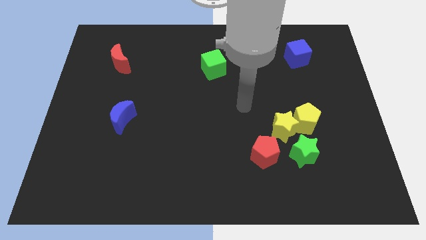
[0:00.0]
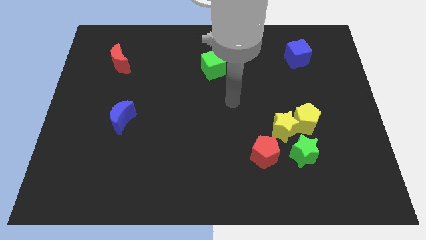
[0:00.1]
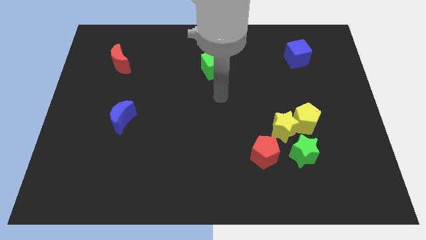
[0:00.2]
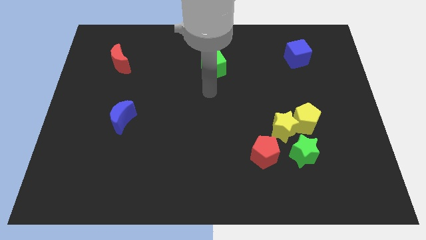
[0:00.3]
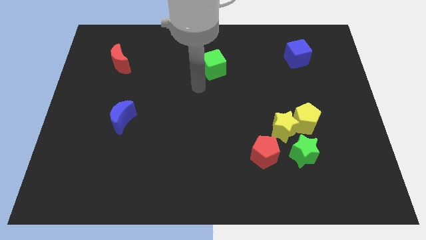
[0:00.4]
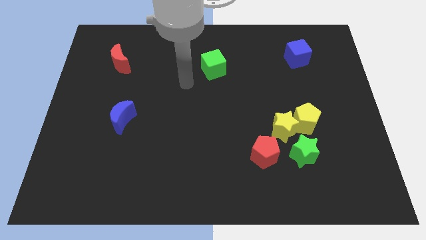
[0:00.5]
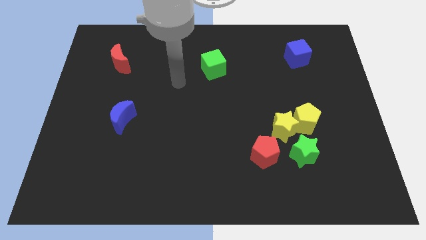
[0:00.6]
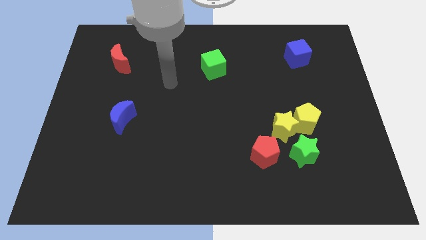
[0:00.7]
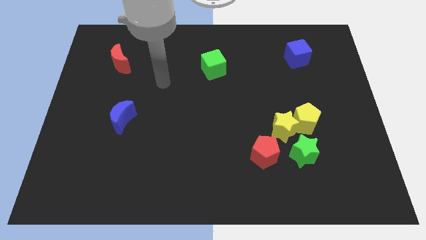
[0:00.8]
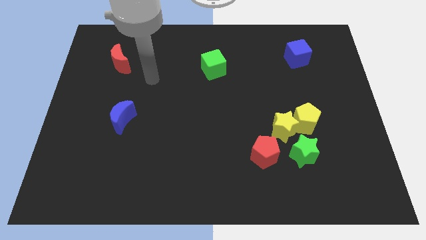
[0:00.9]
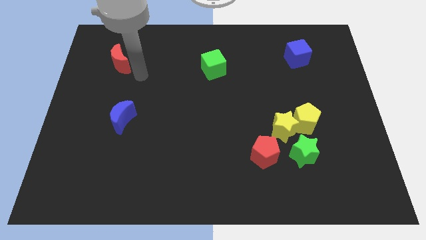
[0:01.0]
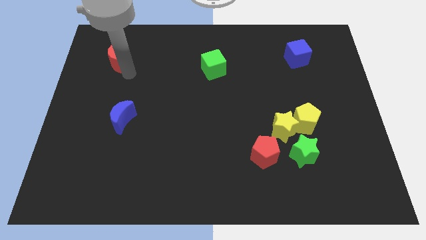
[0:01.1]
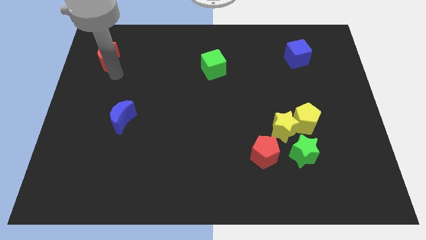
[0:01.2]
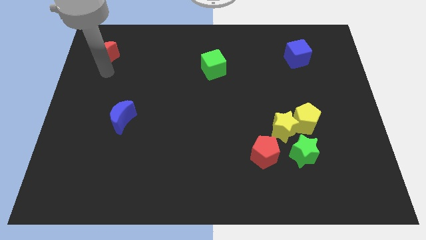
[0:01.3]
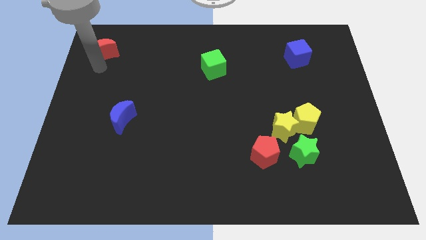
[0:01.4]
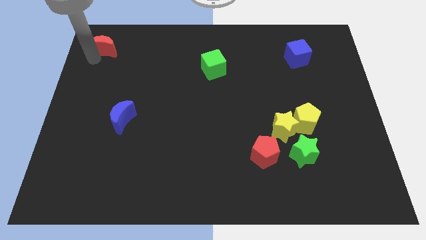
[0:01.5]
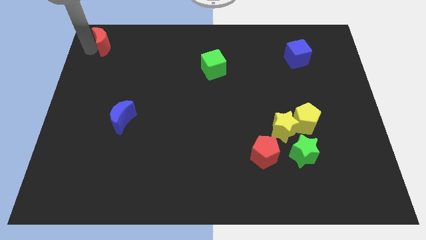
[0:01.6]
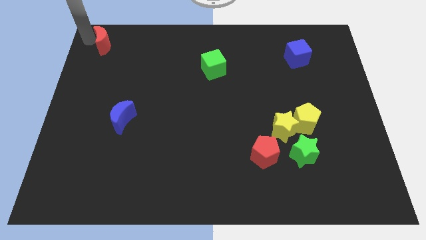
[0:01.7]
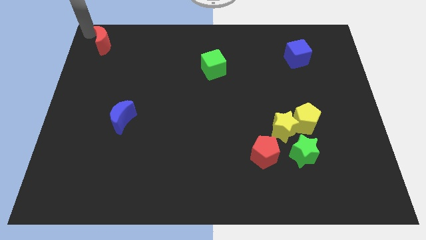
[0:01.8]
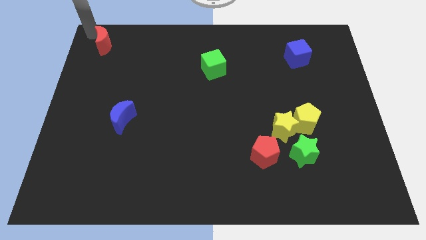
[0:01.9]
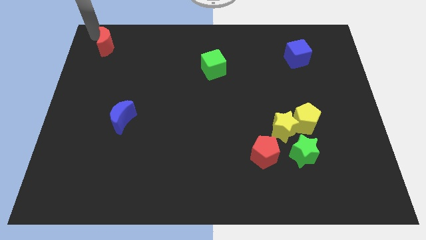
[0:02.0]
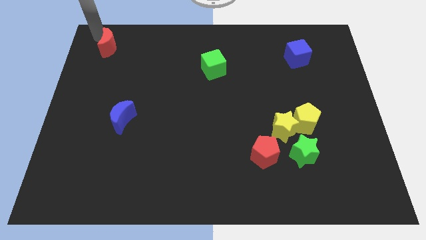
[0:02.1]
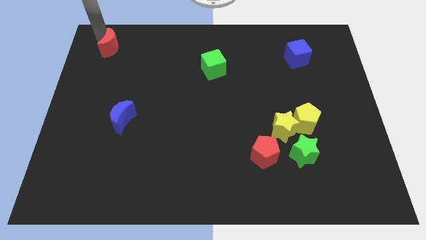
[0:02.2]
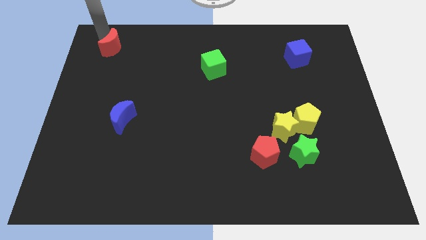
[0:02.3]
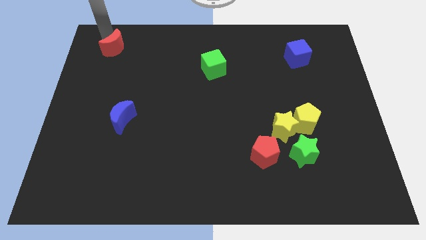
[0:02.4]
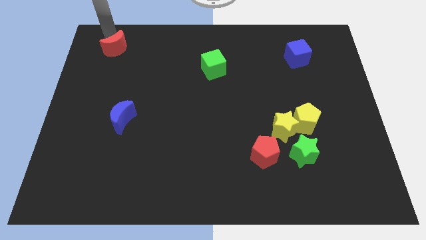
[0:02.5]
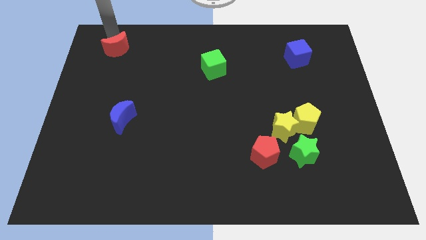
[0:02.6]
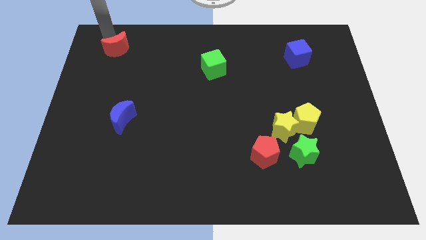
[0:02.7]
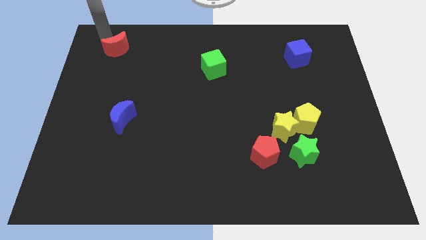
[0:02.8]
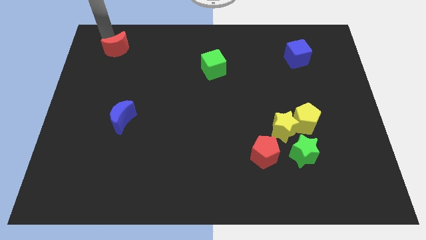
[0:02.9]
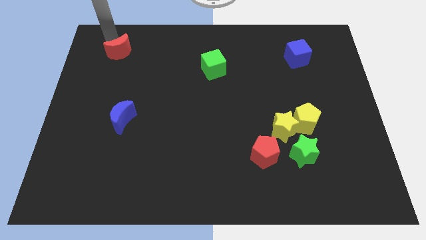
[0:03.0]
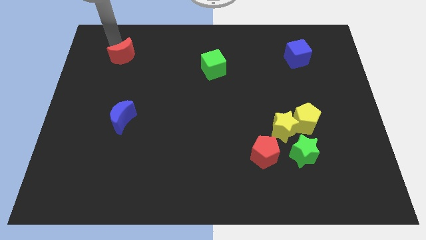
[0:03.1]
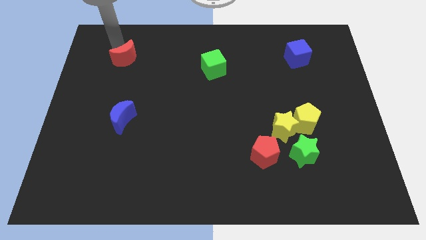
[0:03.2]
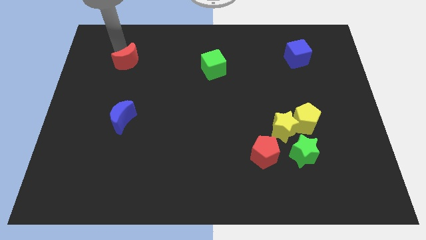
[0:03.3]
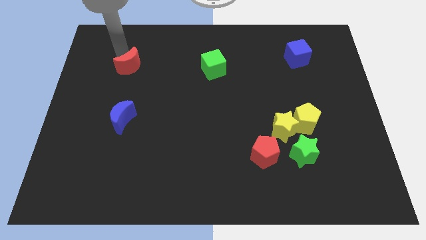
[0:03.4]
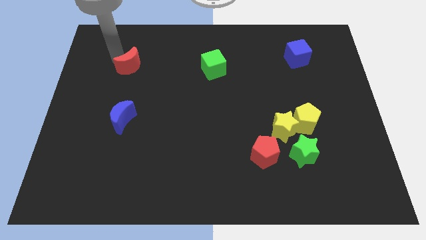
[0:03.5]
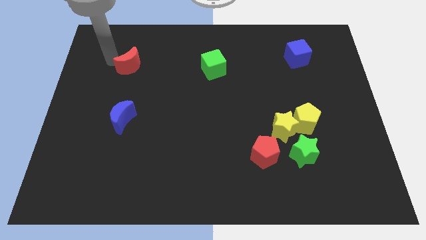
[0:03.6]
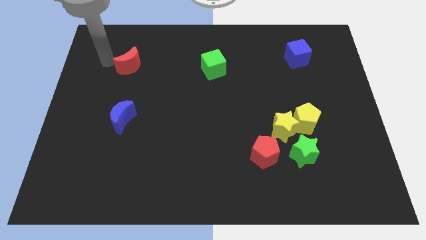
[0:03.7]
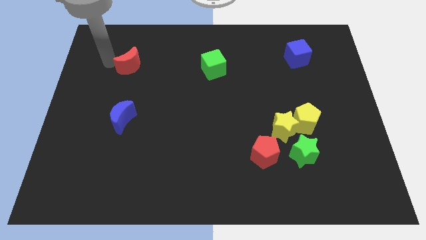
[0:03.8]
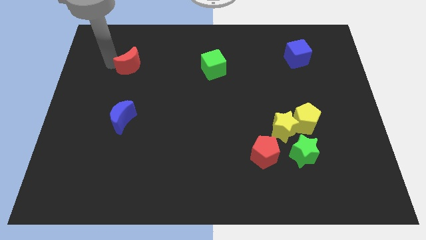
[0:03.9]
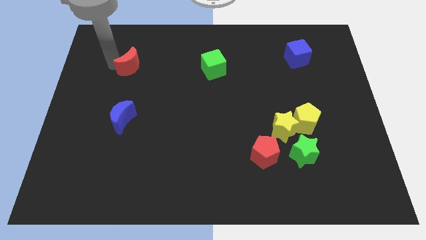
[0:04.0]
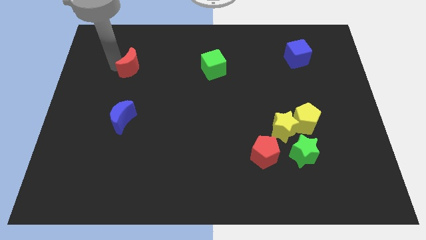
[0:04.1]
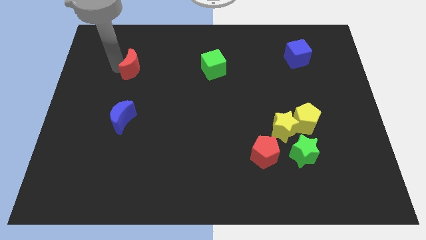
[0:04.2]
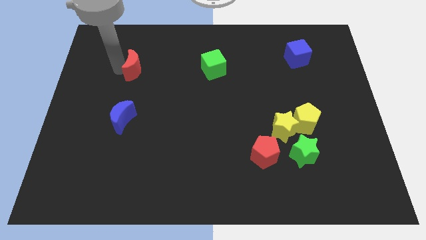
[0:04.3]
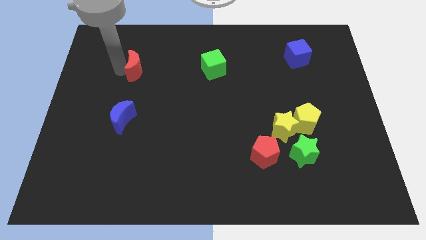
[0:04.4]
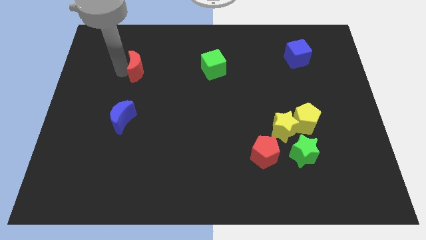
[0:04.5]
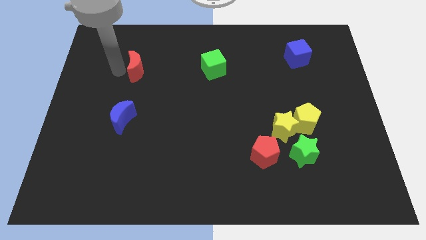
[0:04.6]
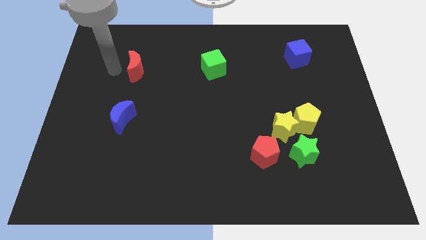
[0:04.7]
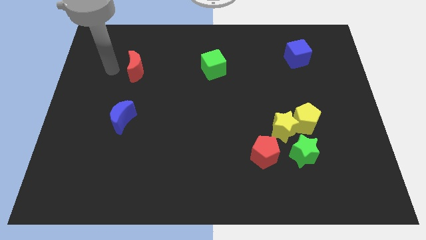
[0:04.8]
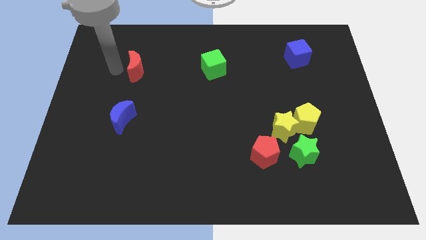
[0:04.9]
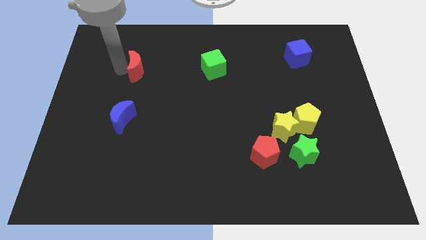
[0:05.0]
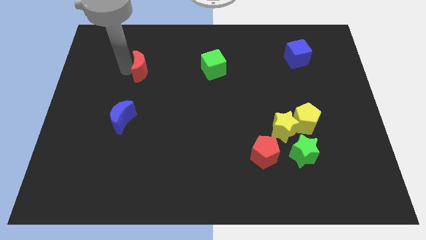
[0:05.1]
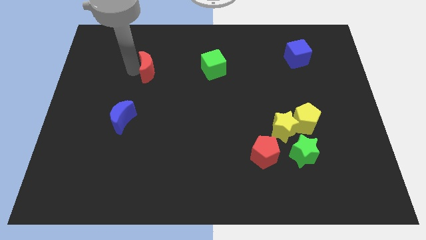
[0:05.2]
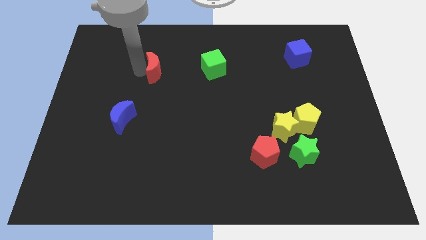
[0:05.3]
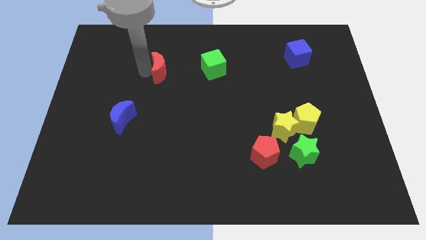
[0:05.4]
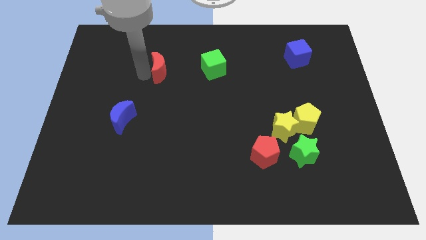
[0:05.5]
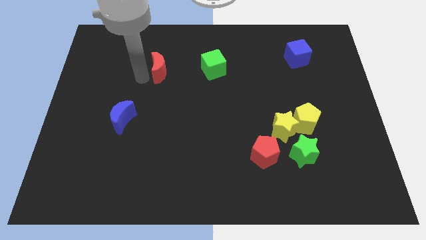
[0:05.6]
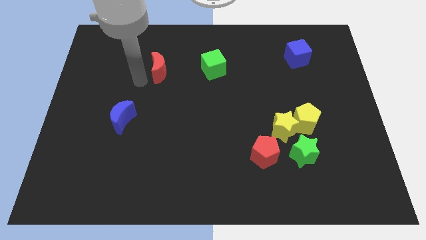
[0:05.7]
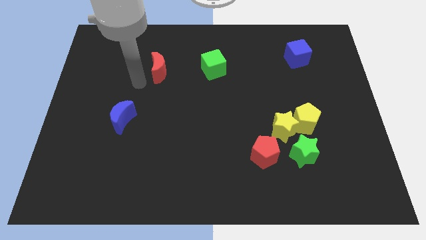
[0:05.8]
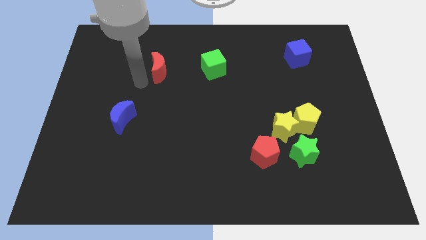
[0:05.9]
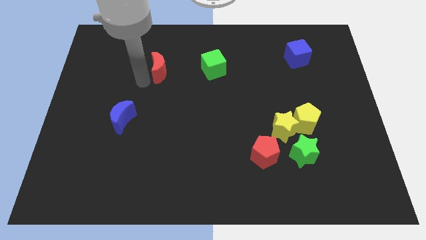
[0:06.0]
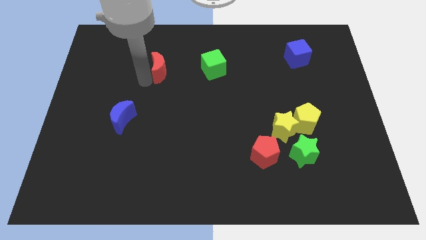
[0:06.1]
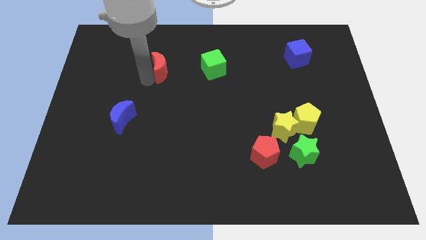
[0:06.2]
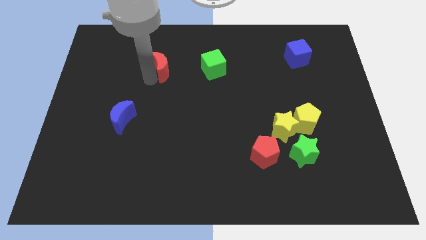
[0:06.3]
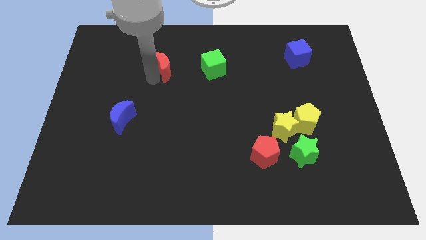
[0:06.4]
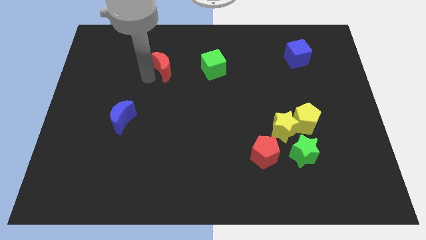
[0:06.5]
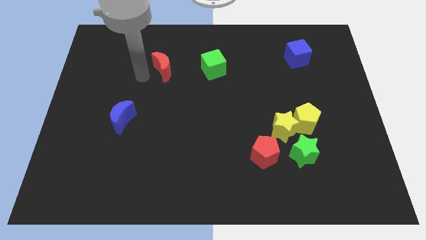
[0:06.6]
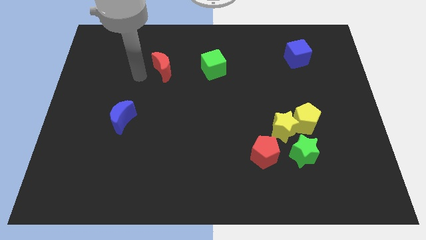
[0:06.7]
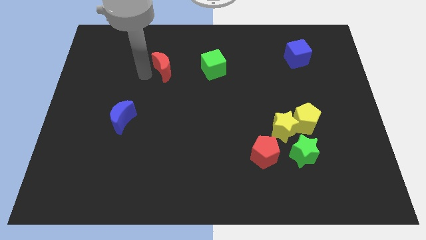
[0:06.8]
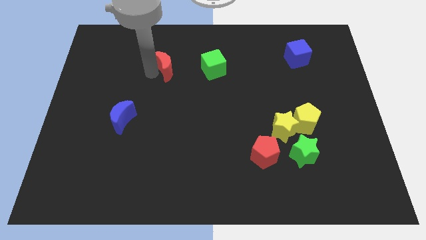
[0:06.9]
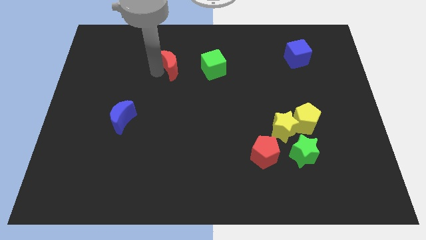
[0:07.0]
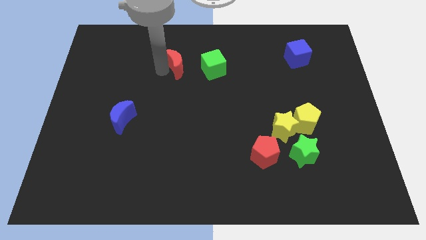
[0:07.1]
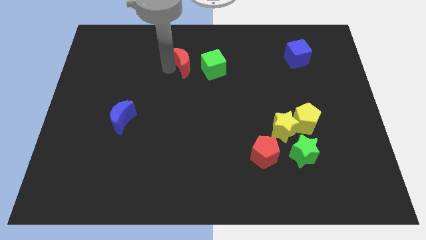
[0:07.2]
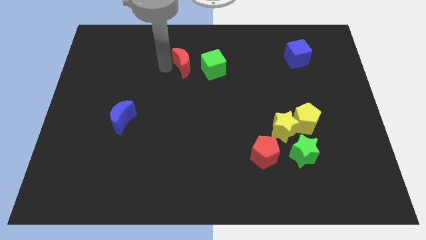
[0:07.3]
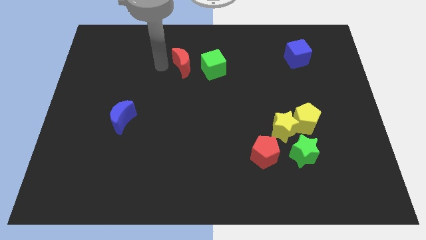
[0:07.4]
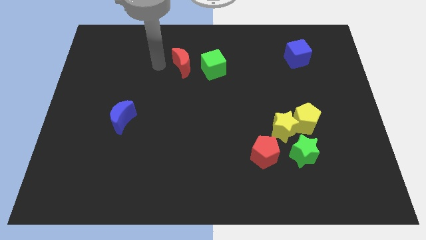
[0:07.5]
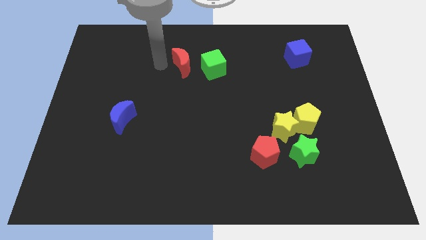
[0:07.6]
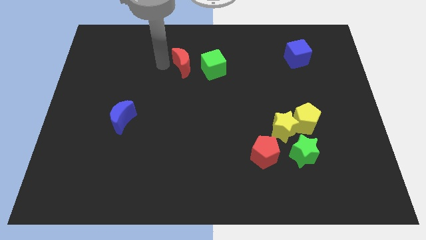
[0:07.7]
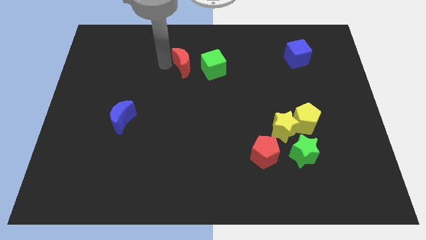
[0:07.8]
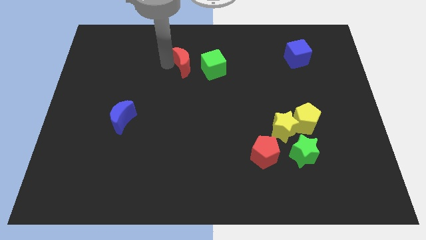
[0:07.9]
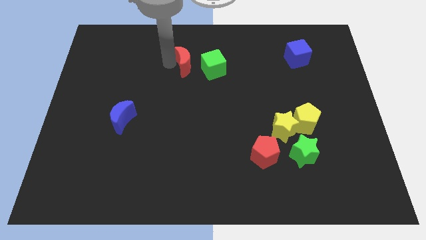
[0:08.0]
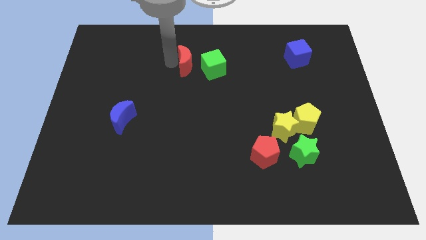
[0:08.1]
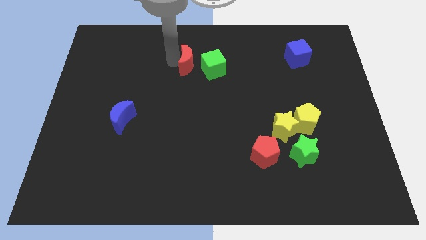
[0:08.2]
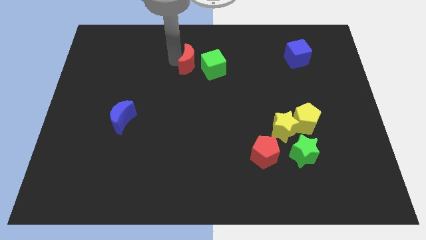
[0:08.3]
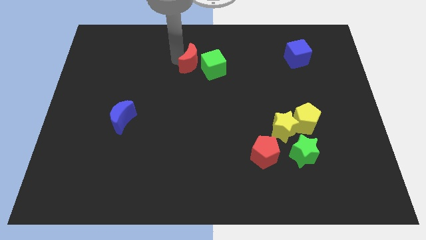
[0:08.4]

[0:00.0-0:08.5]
slide the red moon next to the green cube
